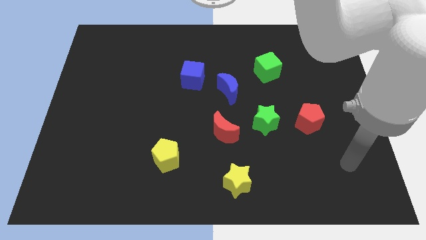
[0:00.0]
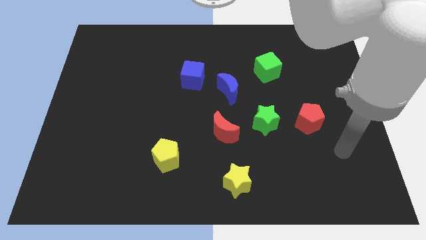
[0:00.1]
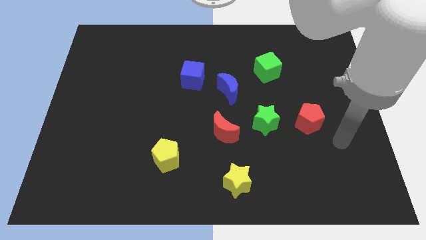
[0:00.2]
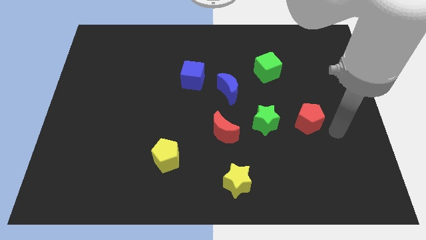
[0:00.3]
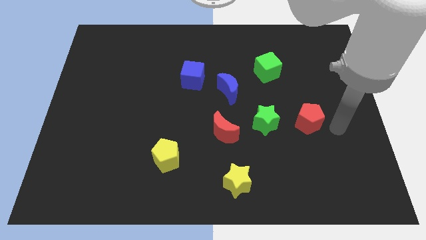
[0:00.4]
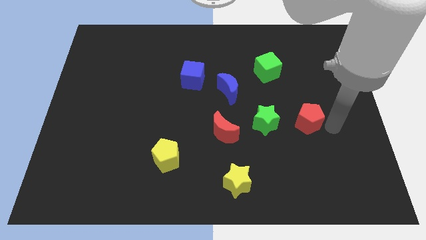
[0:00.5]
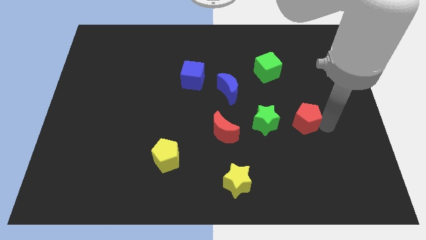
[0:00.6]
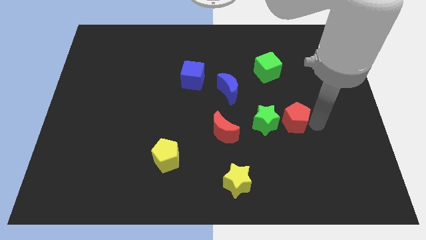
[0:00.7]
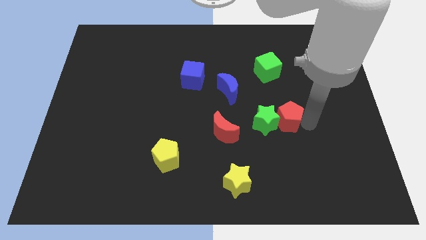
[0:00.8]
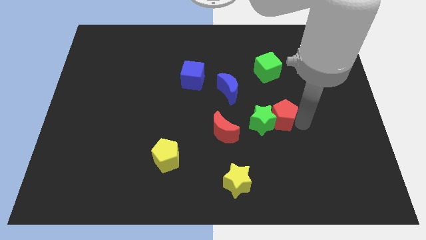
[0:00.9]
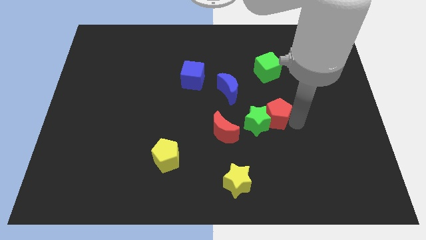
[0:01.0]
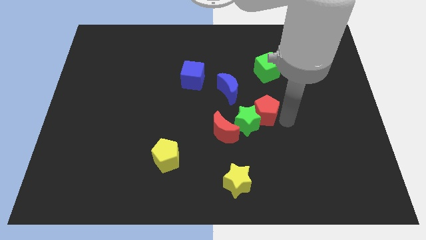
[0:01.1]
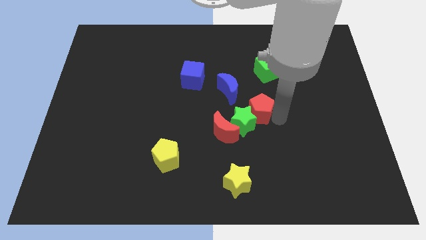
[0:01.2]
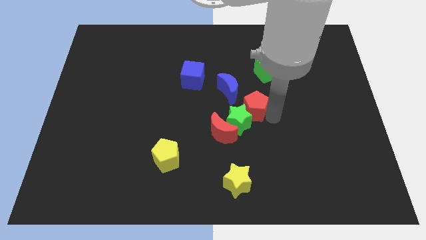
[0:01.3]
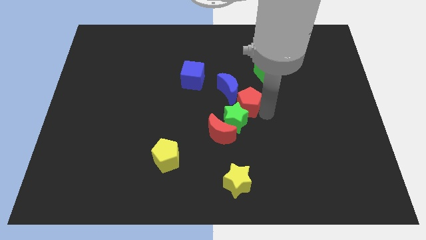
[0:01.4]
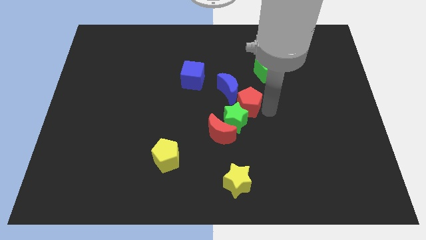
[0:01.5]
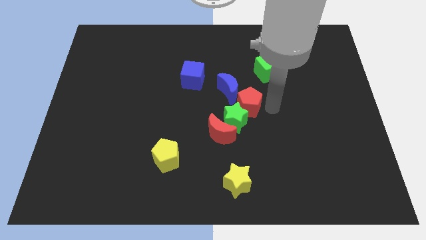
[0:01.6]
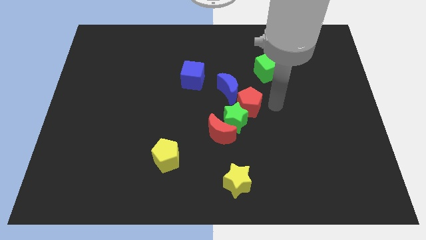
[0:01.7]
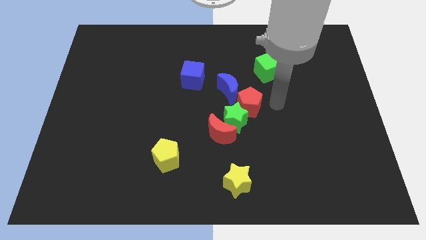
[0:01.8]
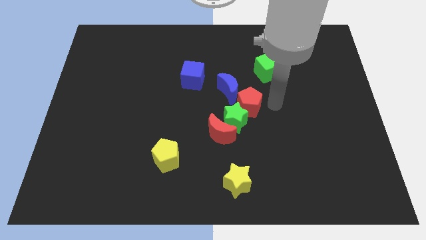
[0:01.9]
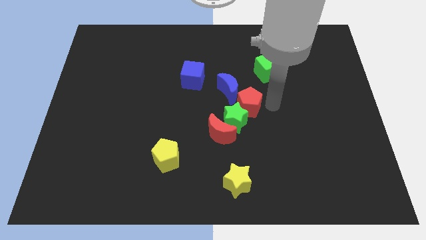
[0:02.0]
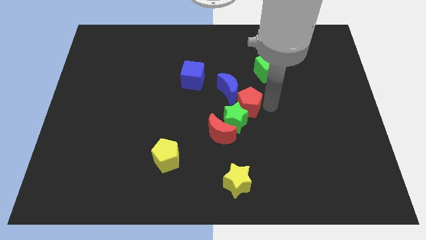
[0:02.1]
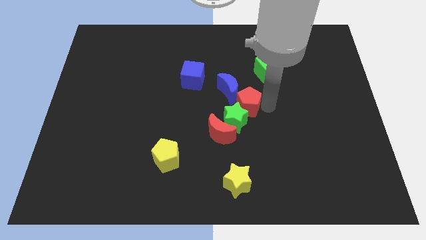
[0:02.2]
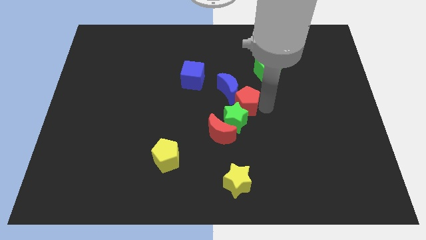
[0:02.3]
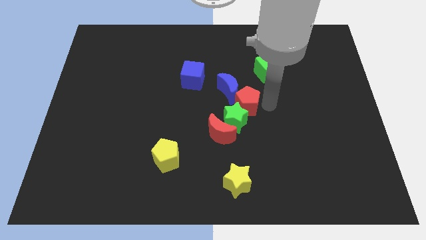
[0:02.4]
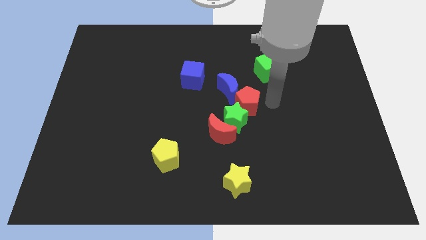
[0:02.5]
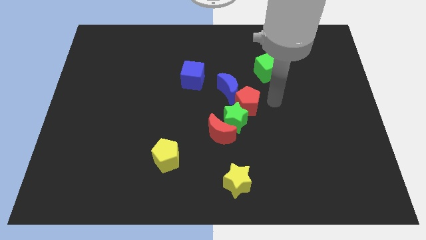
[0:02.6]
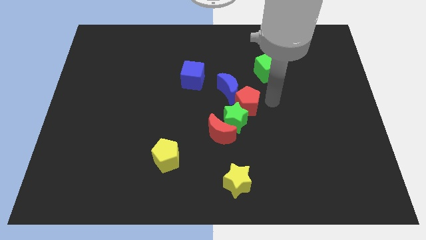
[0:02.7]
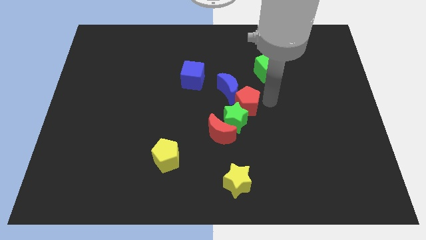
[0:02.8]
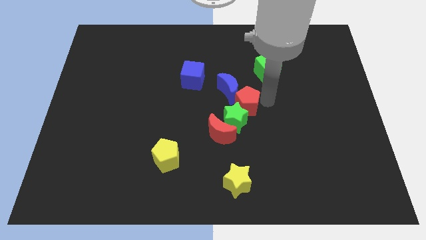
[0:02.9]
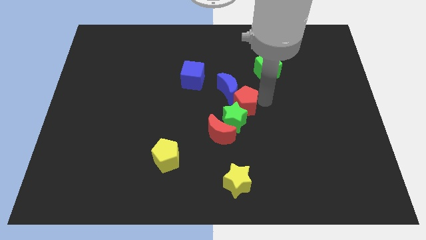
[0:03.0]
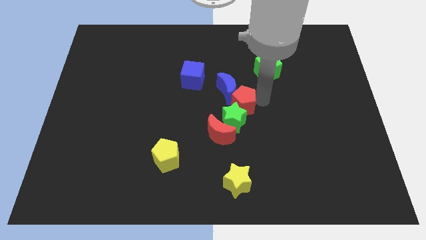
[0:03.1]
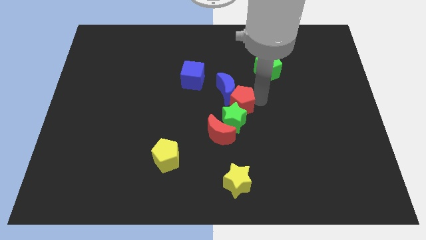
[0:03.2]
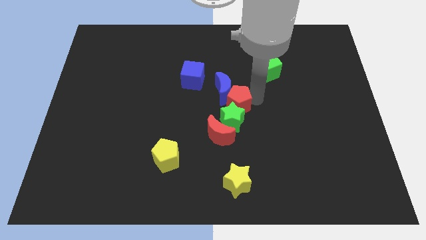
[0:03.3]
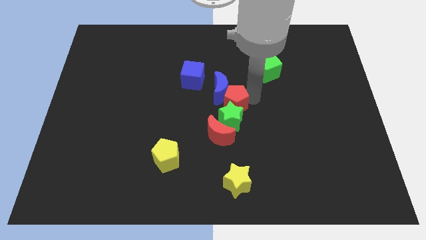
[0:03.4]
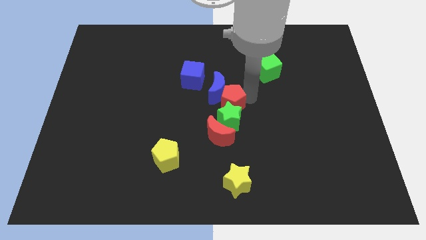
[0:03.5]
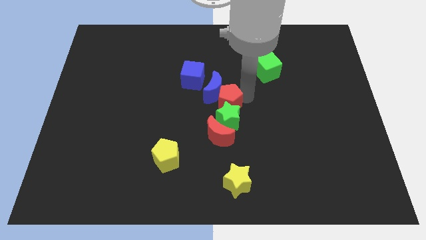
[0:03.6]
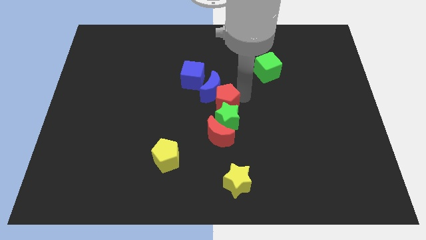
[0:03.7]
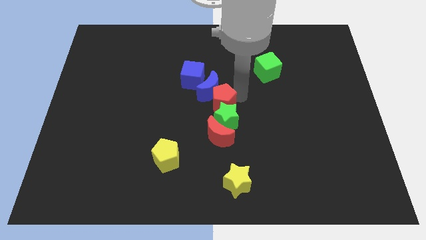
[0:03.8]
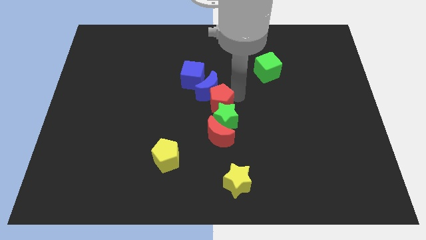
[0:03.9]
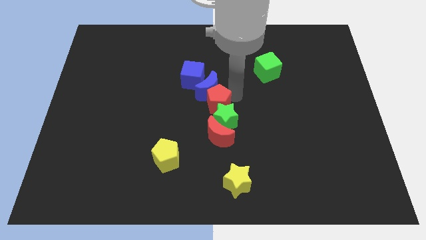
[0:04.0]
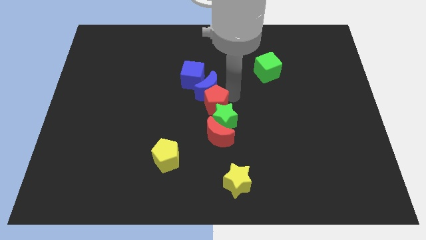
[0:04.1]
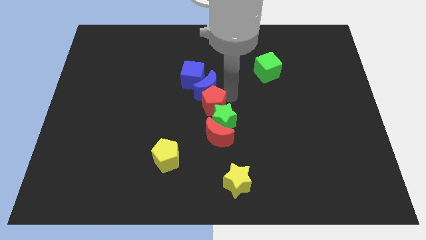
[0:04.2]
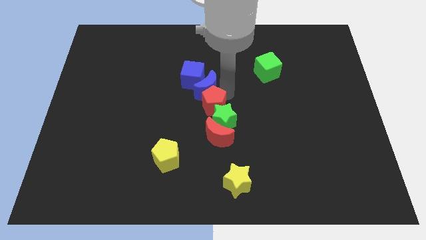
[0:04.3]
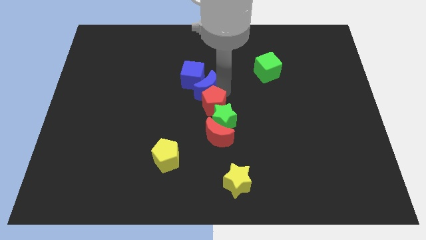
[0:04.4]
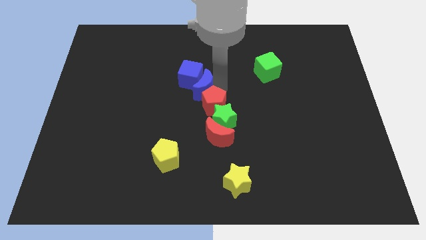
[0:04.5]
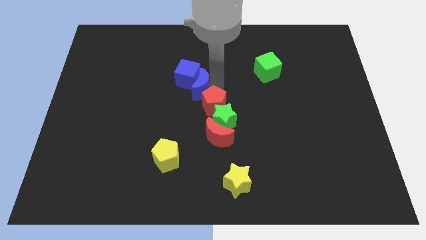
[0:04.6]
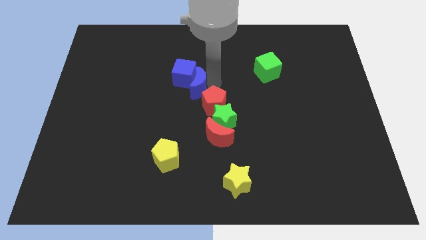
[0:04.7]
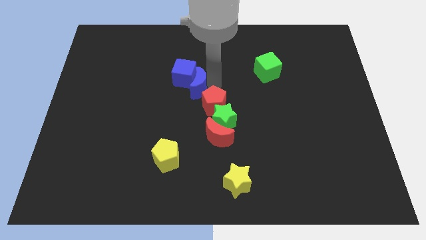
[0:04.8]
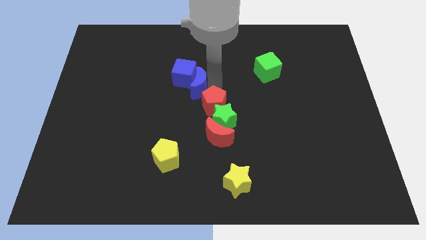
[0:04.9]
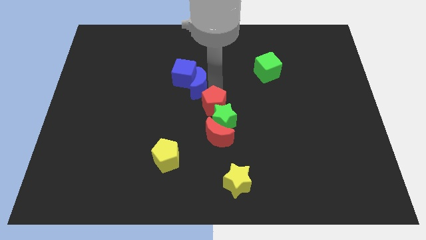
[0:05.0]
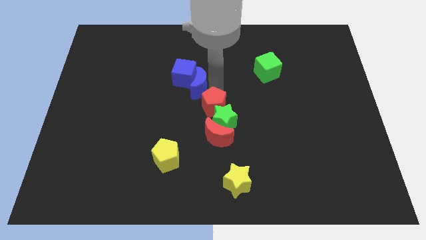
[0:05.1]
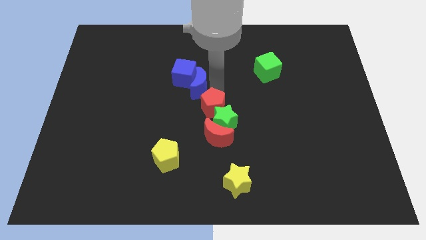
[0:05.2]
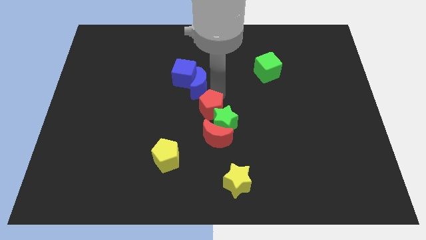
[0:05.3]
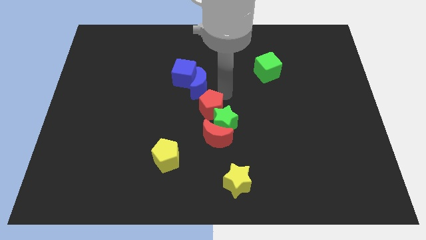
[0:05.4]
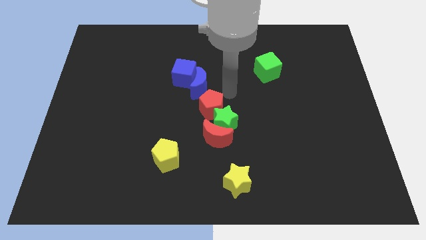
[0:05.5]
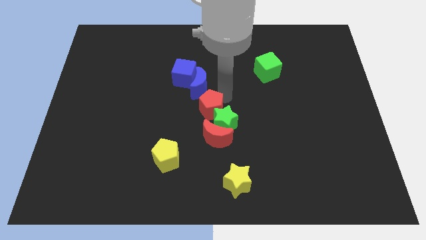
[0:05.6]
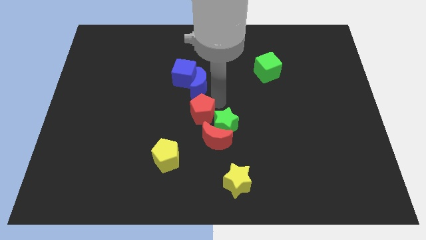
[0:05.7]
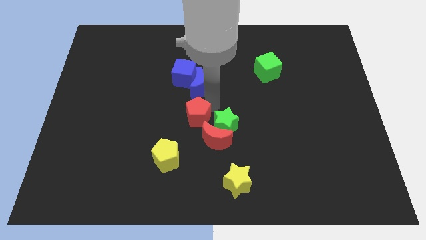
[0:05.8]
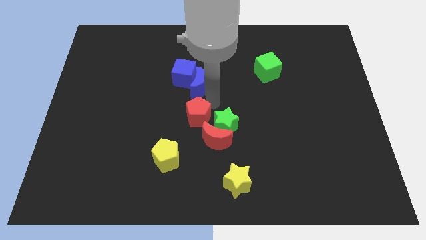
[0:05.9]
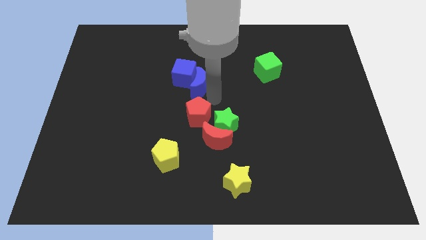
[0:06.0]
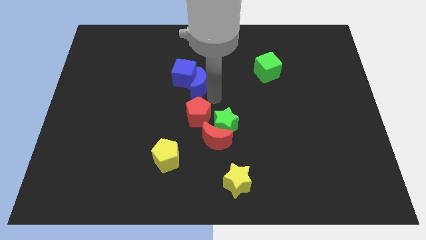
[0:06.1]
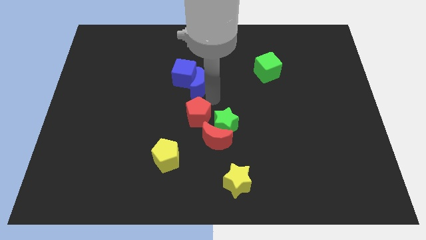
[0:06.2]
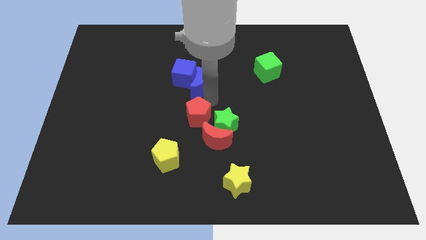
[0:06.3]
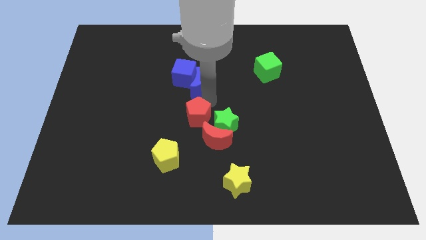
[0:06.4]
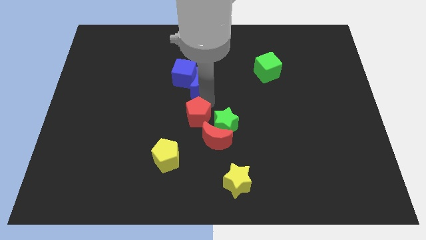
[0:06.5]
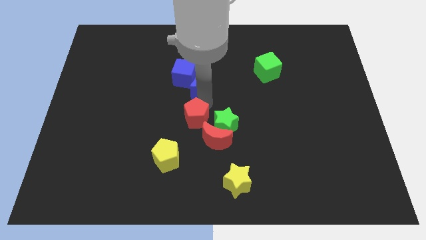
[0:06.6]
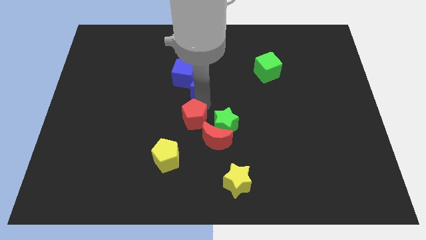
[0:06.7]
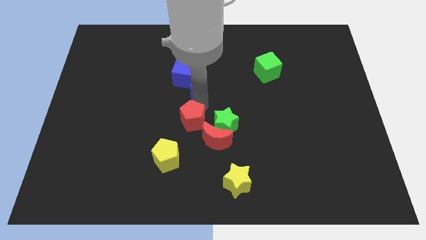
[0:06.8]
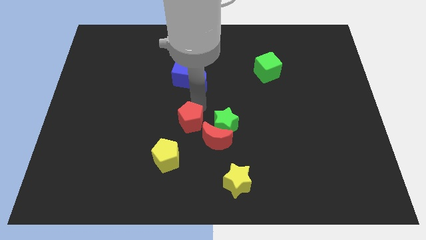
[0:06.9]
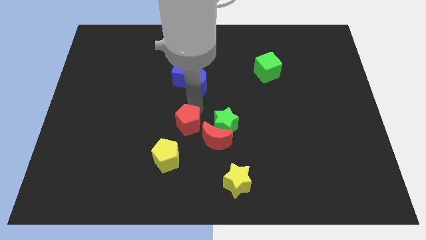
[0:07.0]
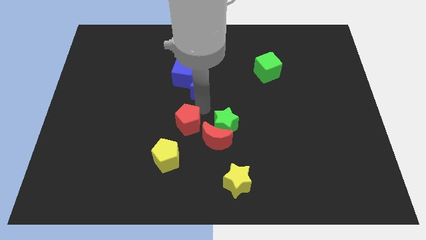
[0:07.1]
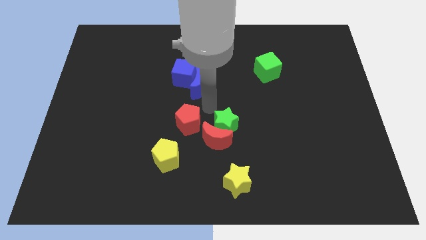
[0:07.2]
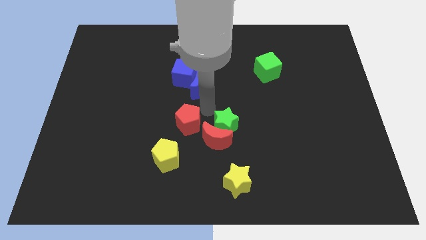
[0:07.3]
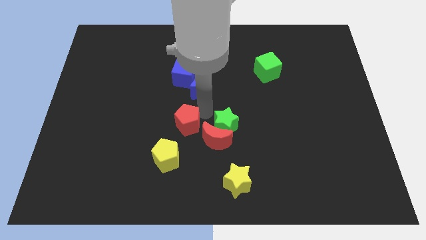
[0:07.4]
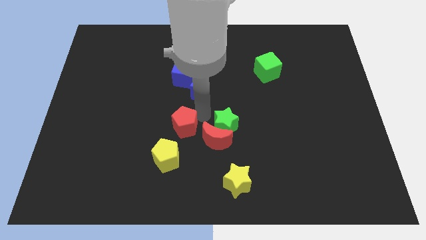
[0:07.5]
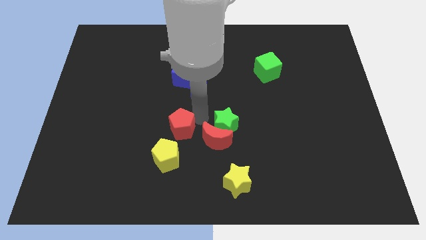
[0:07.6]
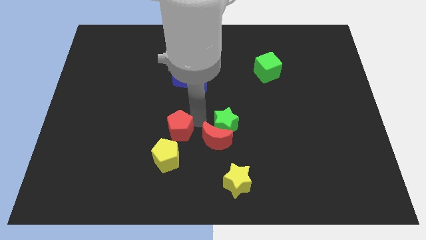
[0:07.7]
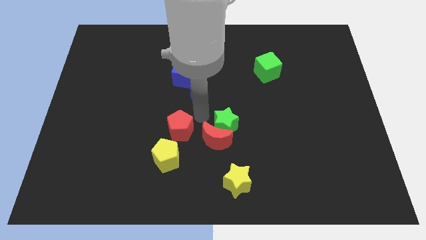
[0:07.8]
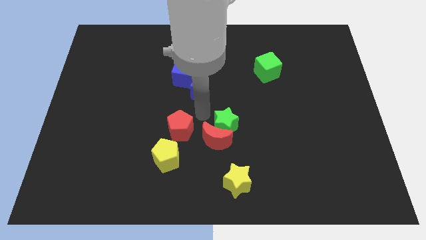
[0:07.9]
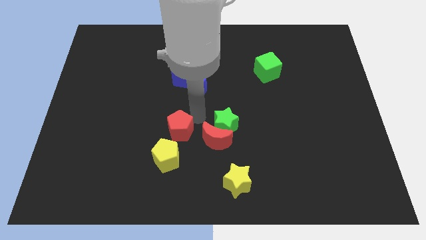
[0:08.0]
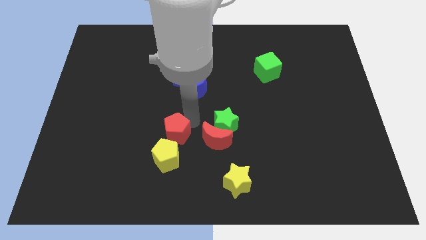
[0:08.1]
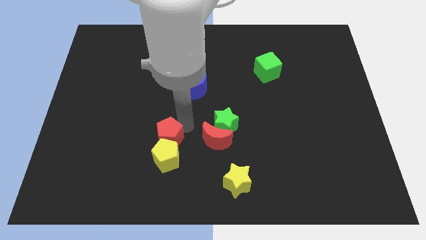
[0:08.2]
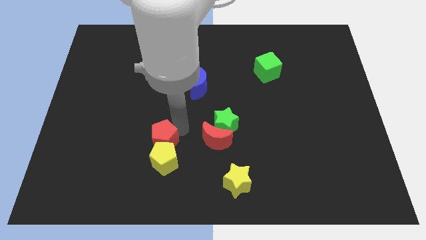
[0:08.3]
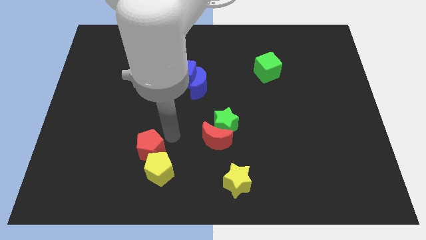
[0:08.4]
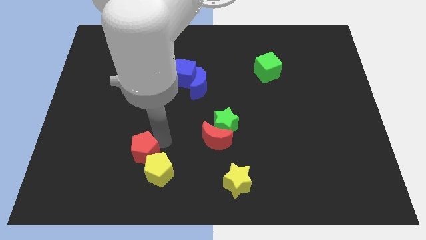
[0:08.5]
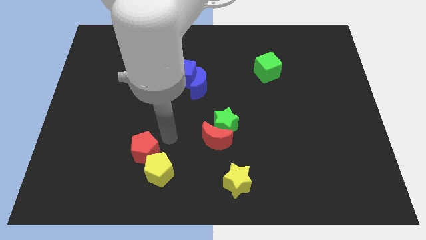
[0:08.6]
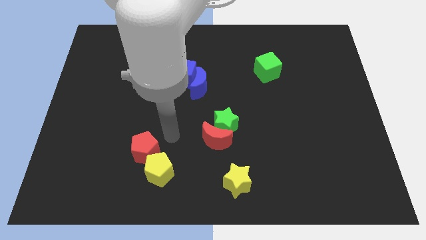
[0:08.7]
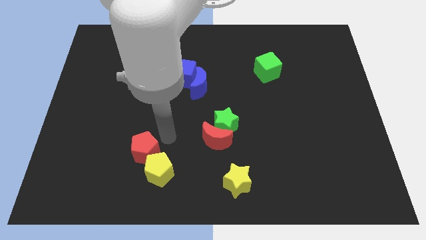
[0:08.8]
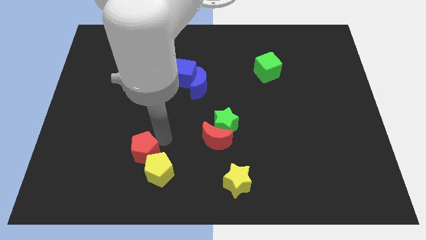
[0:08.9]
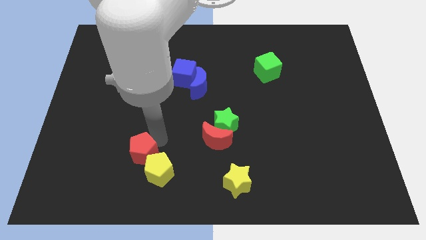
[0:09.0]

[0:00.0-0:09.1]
move the red pentagon just left of the yellow pentagon
